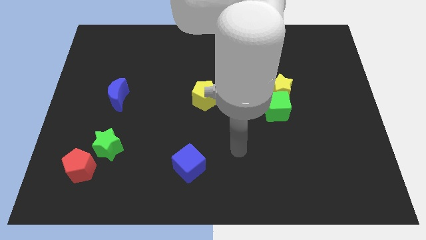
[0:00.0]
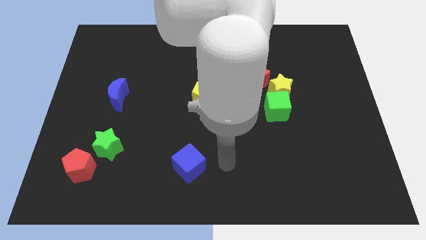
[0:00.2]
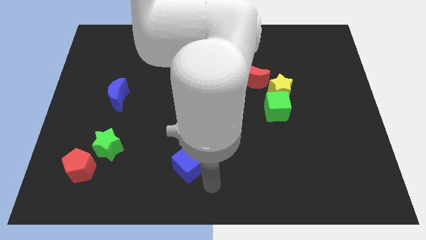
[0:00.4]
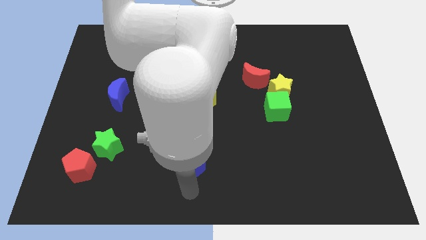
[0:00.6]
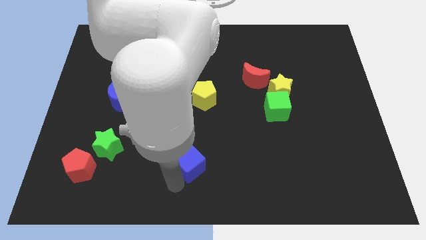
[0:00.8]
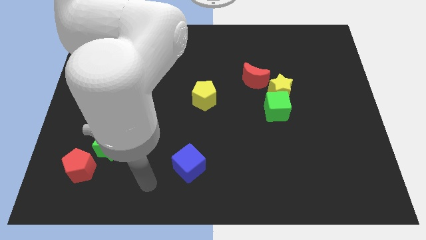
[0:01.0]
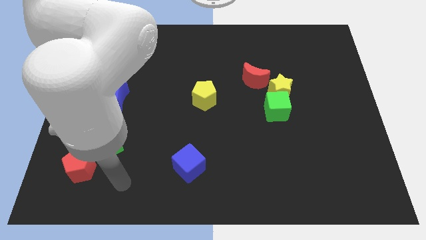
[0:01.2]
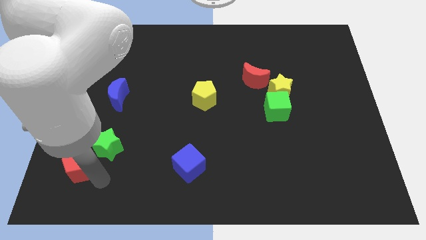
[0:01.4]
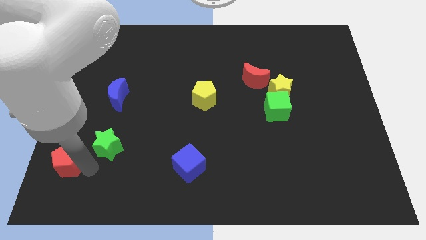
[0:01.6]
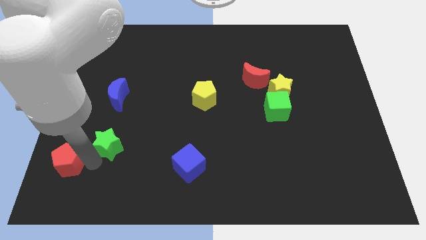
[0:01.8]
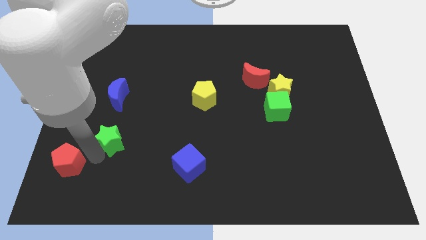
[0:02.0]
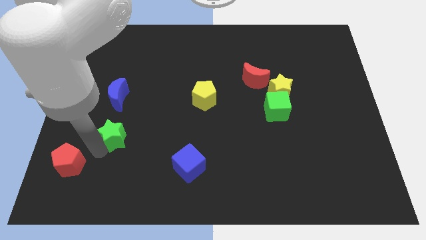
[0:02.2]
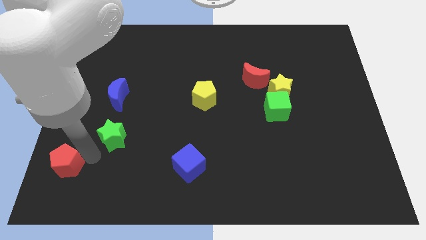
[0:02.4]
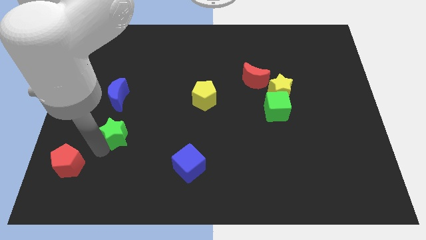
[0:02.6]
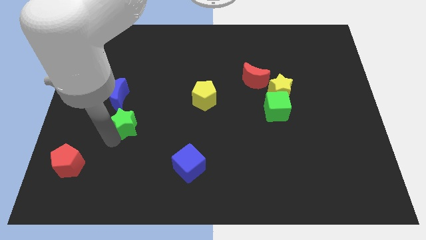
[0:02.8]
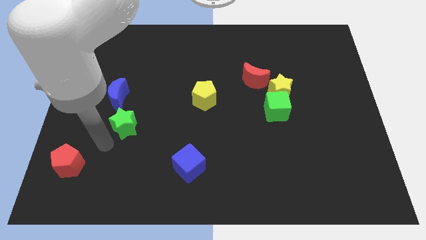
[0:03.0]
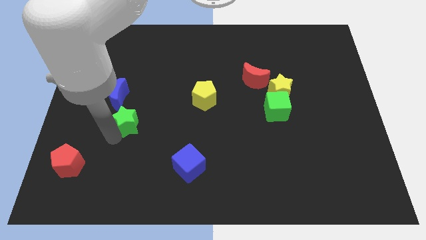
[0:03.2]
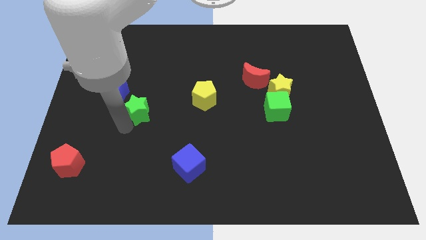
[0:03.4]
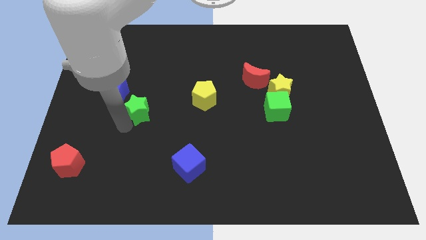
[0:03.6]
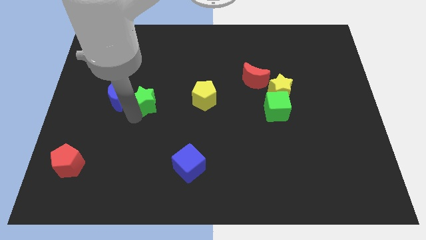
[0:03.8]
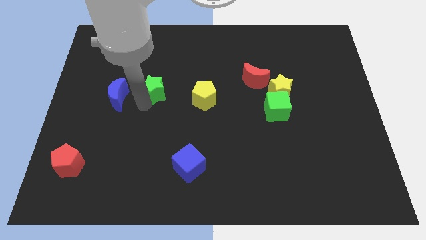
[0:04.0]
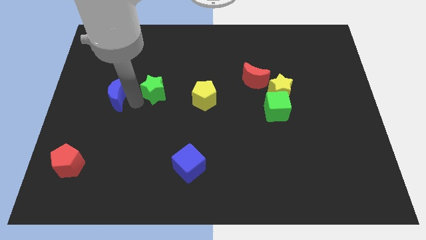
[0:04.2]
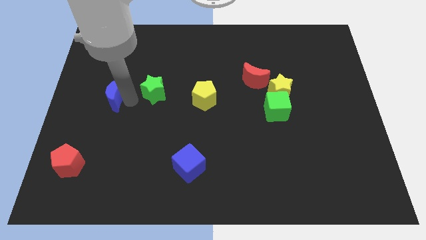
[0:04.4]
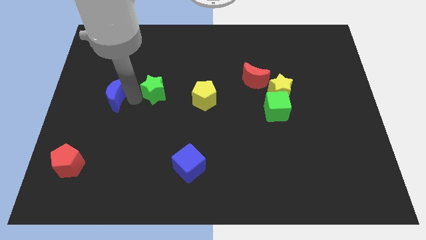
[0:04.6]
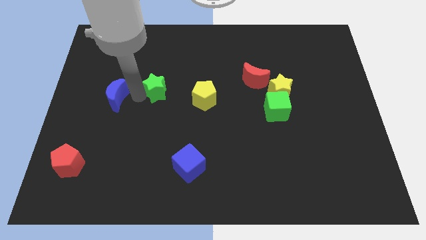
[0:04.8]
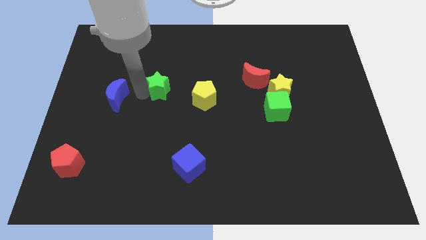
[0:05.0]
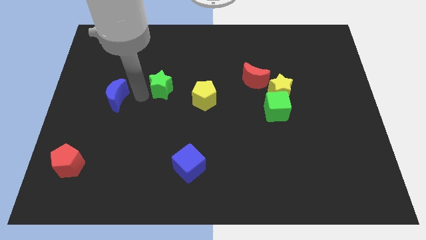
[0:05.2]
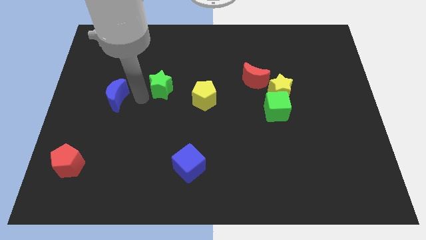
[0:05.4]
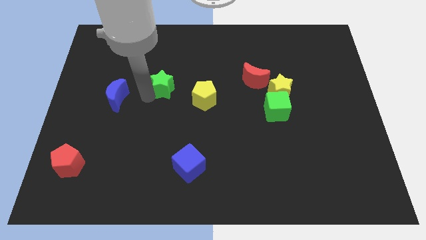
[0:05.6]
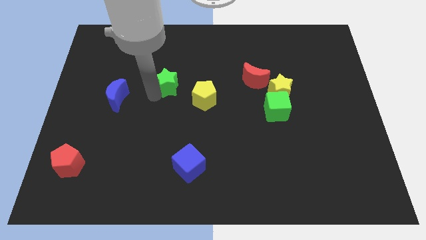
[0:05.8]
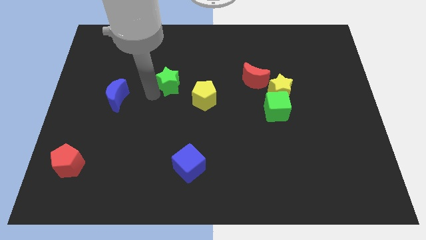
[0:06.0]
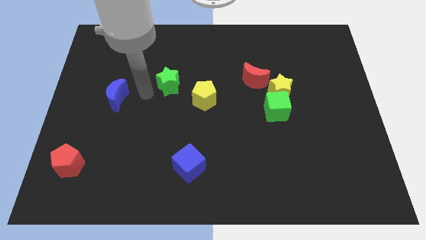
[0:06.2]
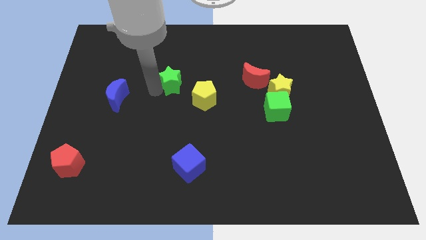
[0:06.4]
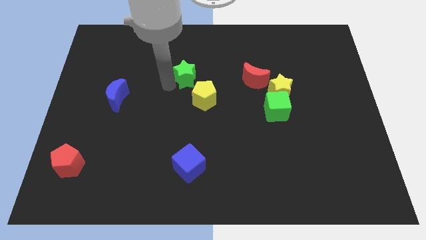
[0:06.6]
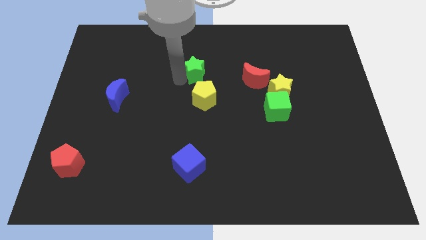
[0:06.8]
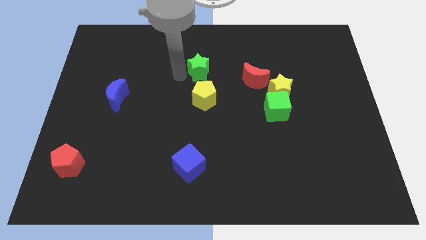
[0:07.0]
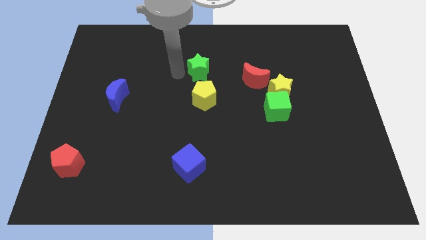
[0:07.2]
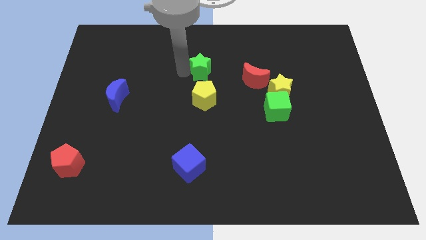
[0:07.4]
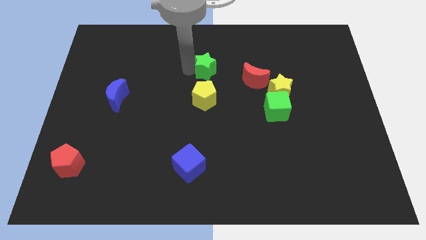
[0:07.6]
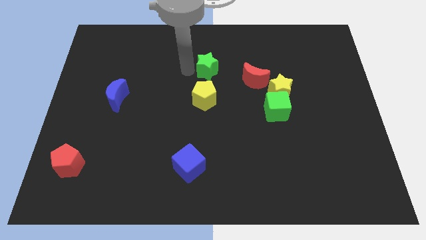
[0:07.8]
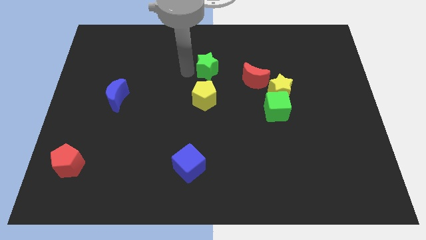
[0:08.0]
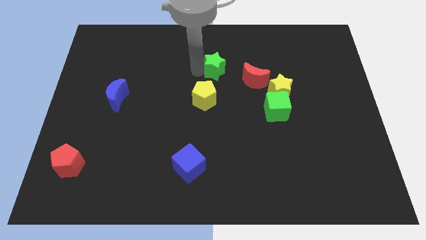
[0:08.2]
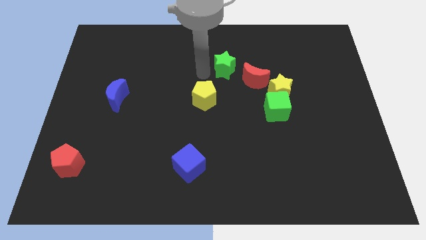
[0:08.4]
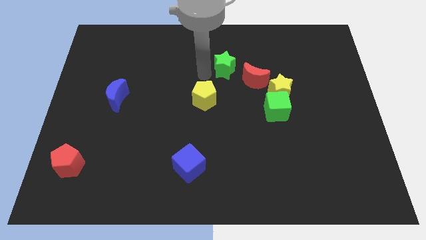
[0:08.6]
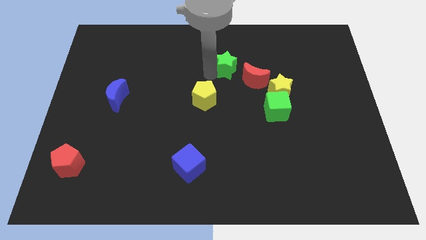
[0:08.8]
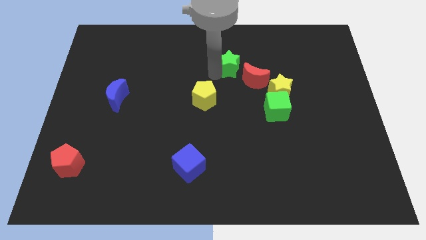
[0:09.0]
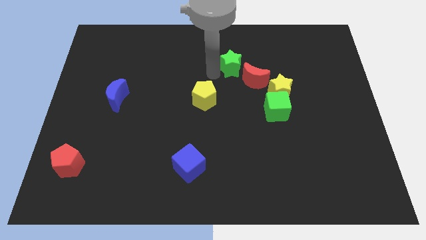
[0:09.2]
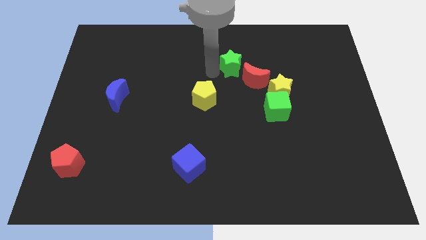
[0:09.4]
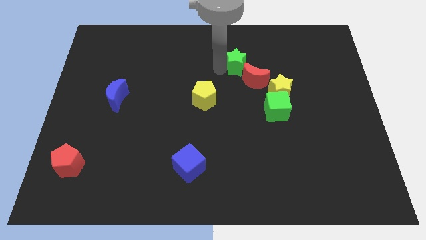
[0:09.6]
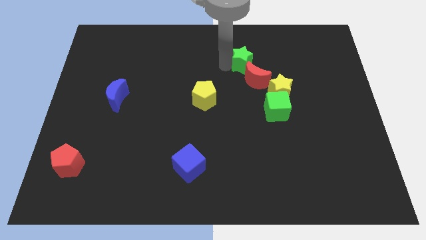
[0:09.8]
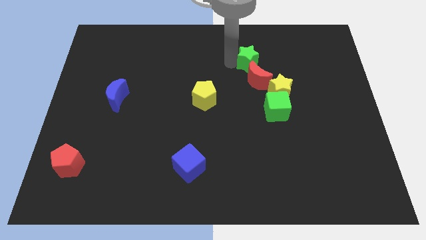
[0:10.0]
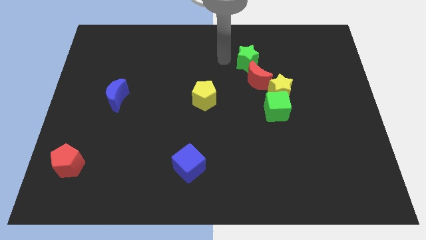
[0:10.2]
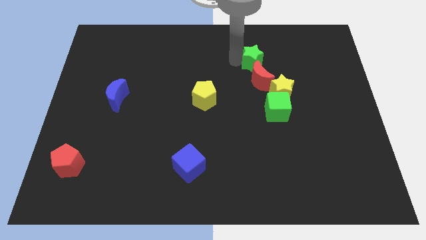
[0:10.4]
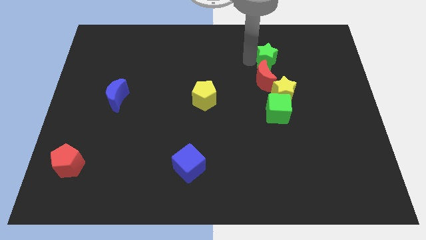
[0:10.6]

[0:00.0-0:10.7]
push the green star diagonally up and to the right of the red moon

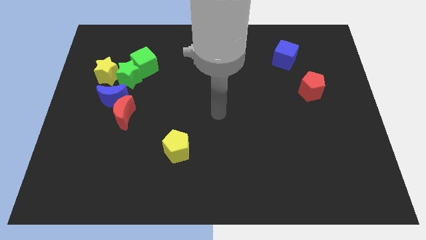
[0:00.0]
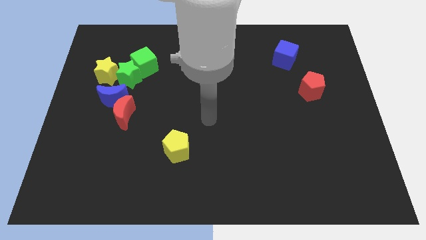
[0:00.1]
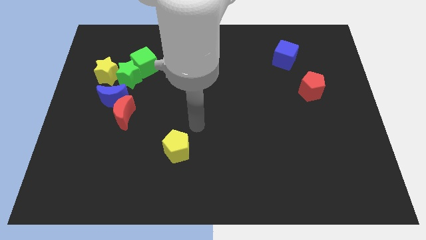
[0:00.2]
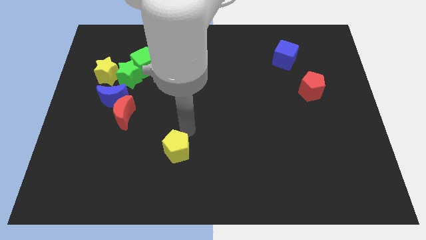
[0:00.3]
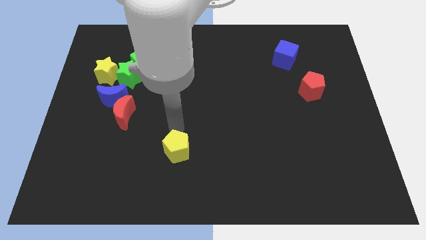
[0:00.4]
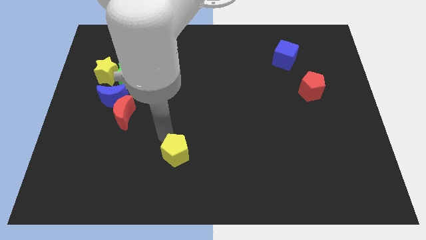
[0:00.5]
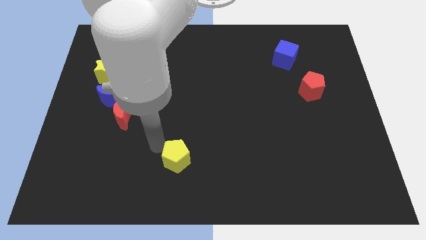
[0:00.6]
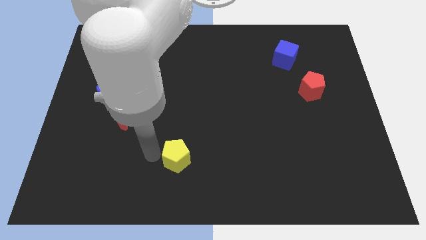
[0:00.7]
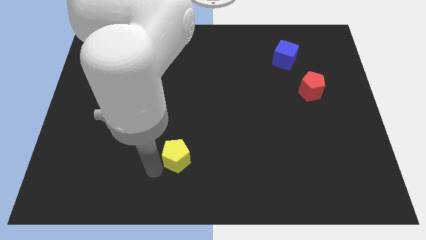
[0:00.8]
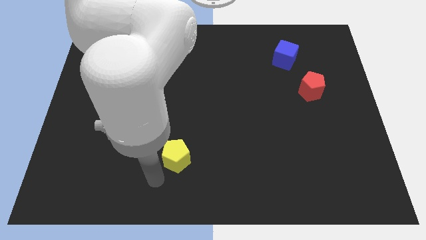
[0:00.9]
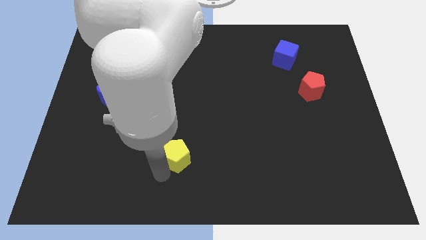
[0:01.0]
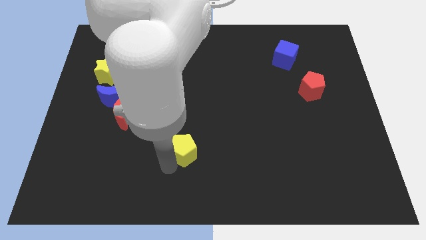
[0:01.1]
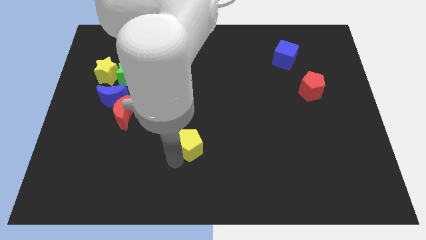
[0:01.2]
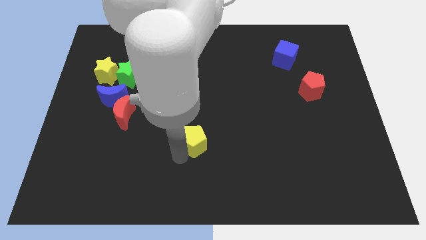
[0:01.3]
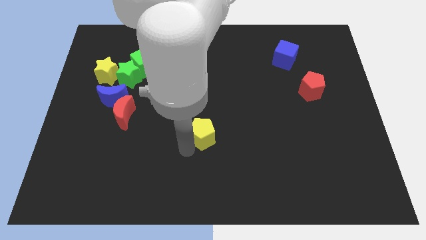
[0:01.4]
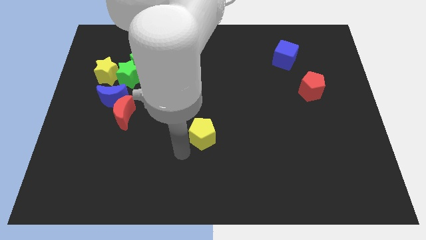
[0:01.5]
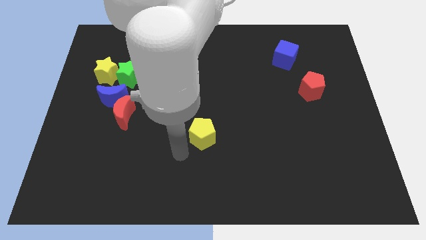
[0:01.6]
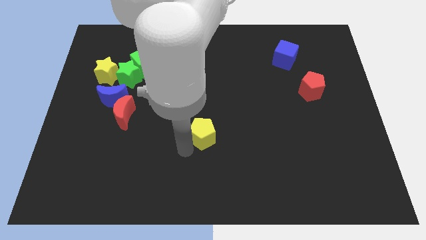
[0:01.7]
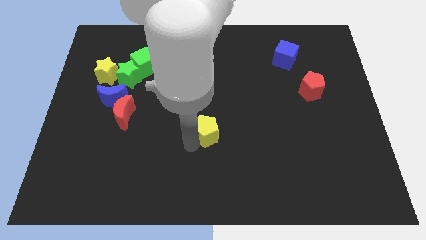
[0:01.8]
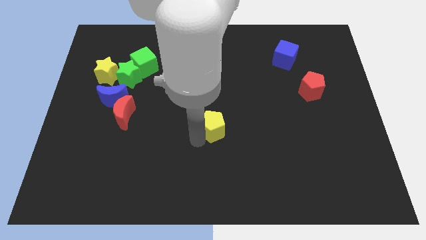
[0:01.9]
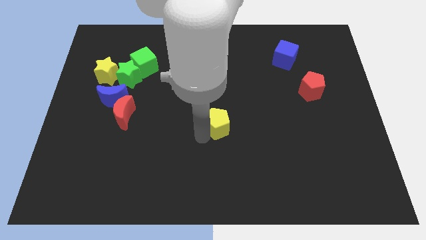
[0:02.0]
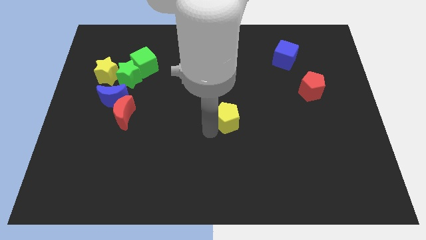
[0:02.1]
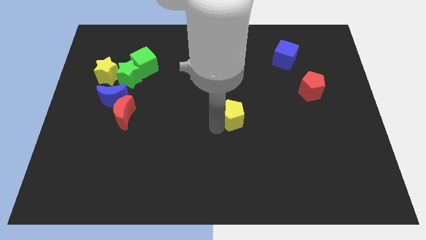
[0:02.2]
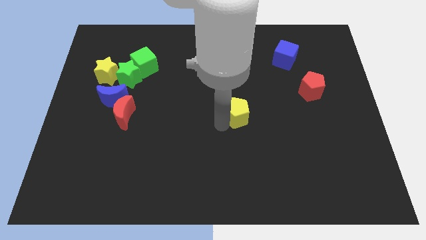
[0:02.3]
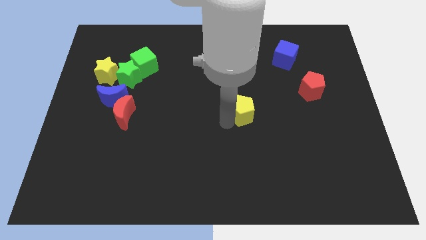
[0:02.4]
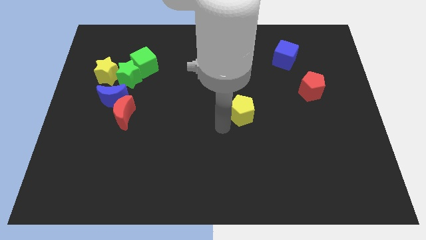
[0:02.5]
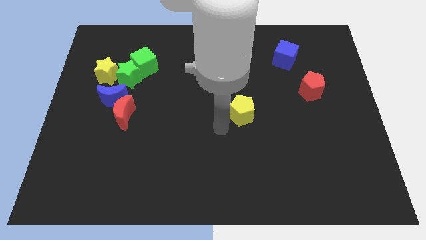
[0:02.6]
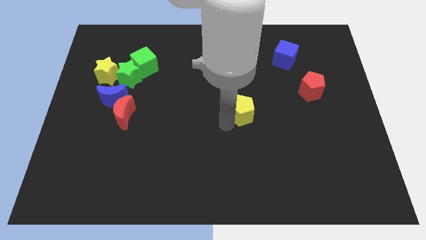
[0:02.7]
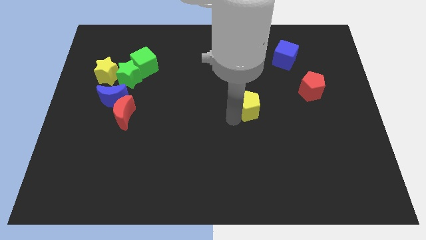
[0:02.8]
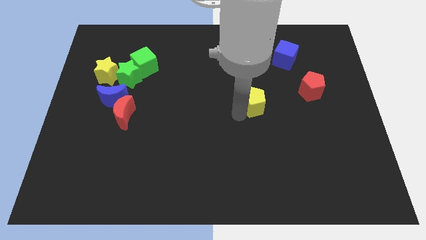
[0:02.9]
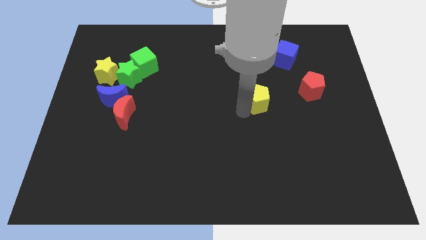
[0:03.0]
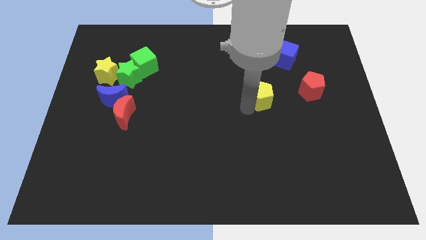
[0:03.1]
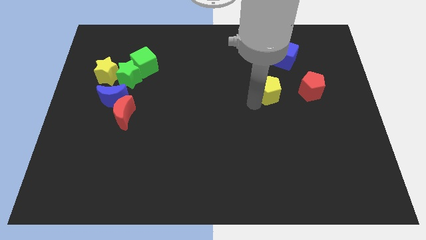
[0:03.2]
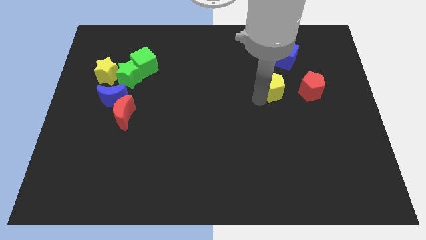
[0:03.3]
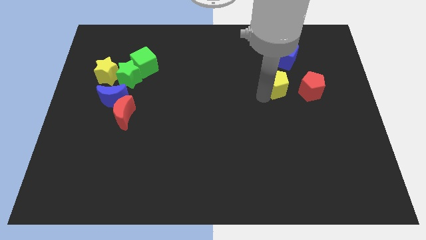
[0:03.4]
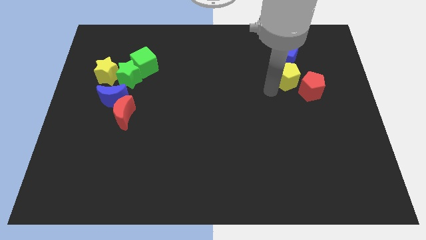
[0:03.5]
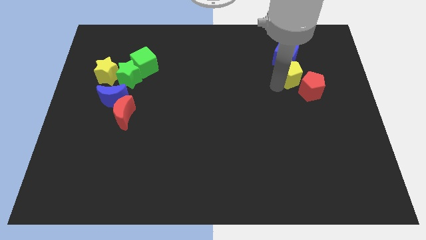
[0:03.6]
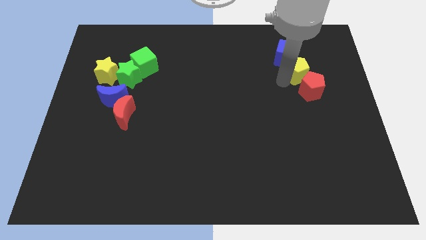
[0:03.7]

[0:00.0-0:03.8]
slide the yellow pentagon to the top side of the red pentagon
